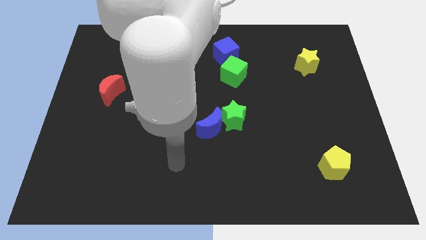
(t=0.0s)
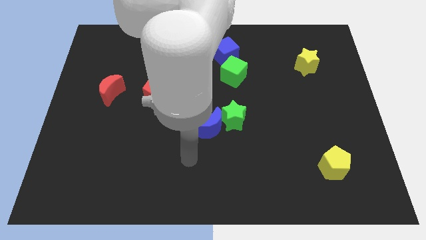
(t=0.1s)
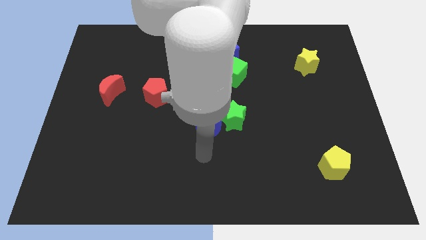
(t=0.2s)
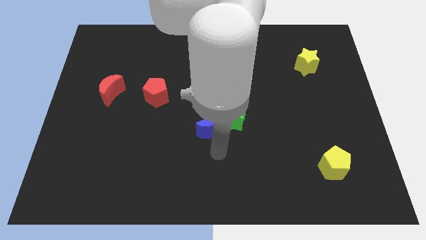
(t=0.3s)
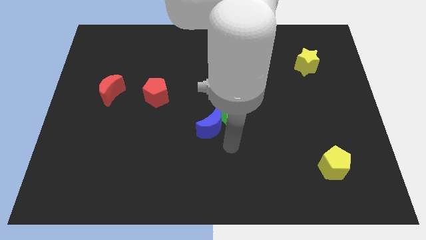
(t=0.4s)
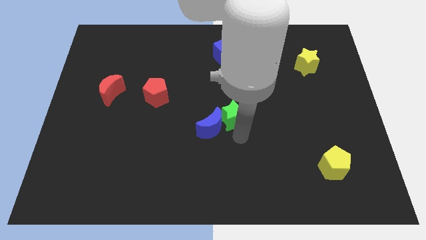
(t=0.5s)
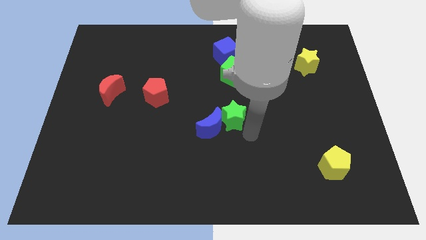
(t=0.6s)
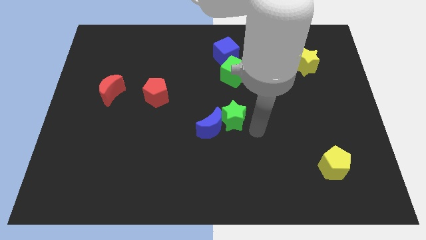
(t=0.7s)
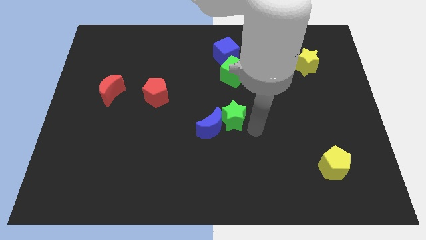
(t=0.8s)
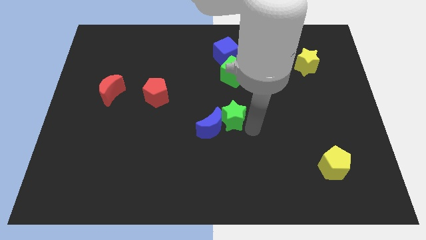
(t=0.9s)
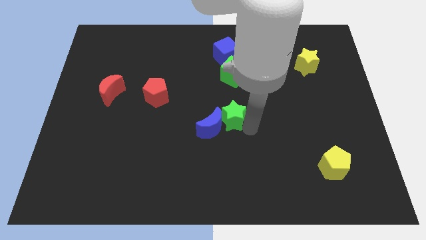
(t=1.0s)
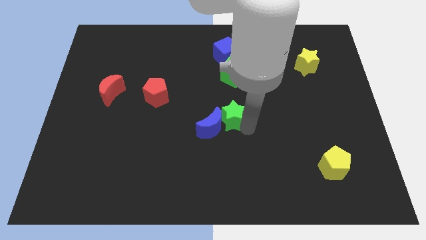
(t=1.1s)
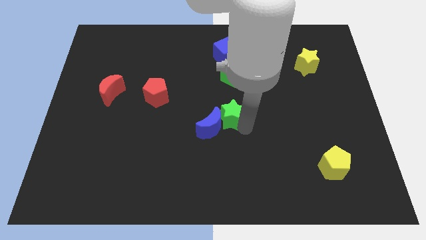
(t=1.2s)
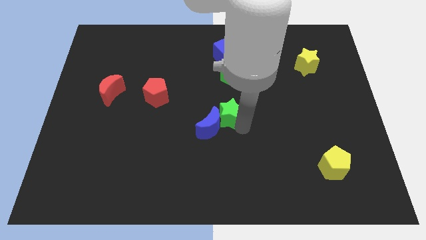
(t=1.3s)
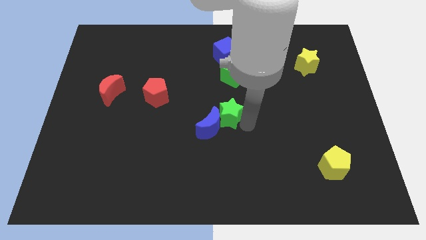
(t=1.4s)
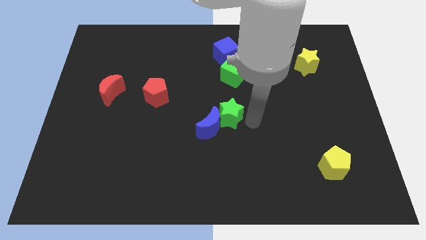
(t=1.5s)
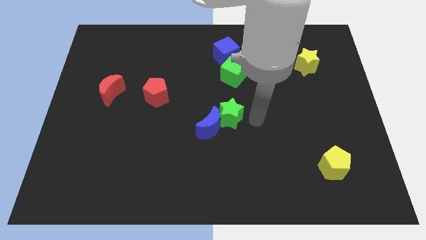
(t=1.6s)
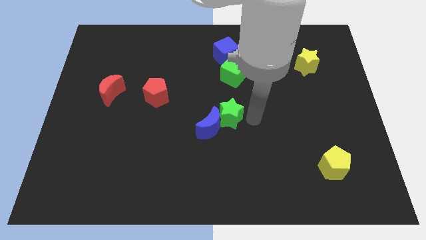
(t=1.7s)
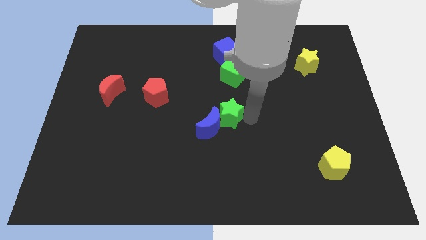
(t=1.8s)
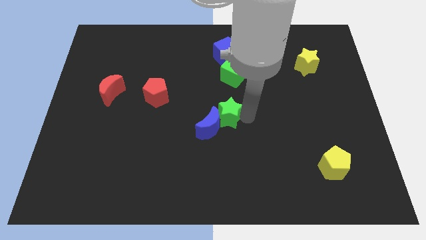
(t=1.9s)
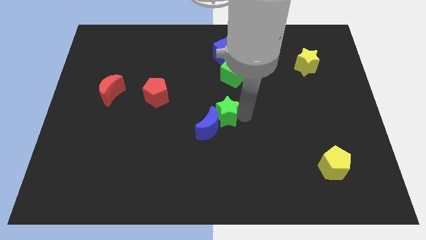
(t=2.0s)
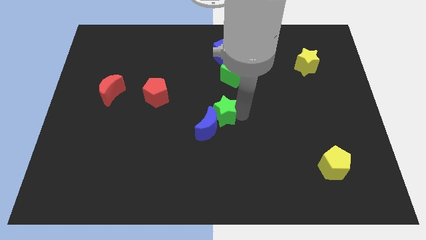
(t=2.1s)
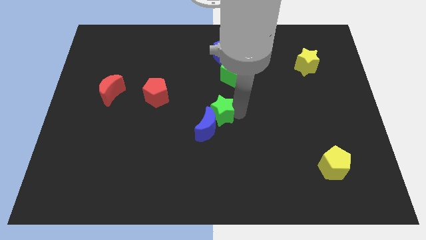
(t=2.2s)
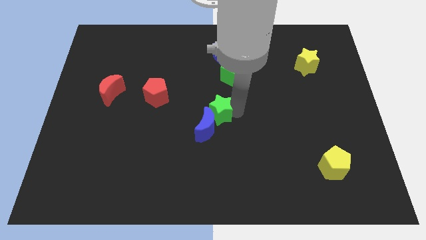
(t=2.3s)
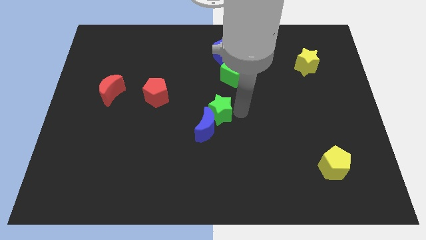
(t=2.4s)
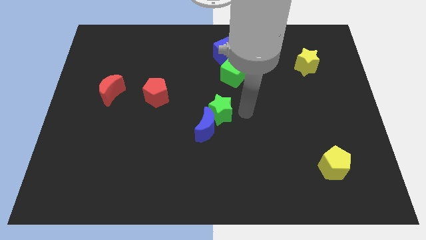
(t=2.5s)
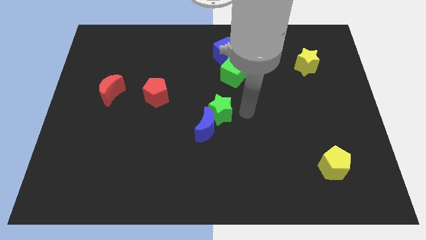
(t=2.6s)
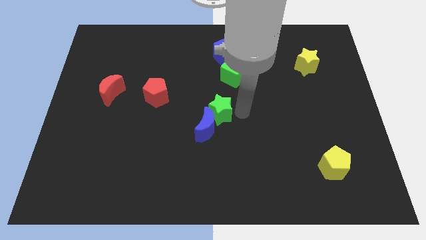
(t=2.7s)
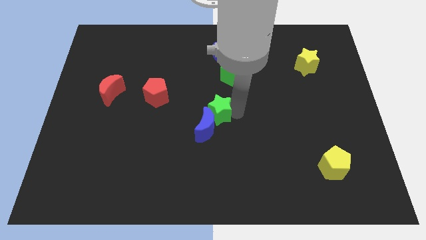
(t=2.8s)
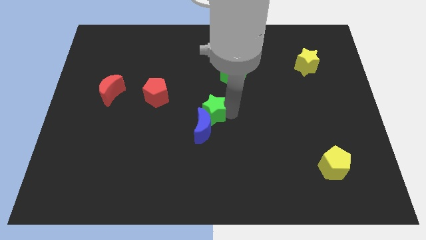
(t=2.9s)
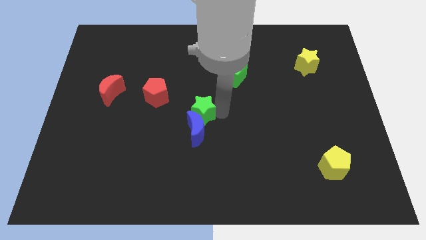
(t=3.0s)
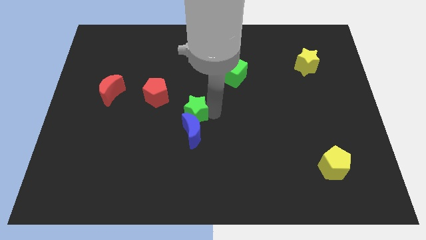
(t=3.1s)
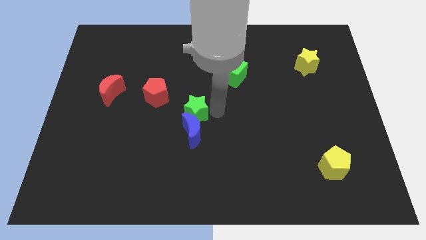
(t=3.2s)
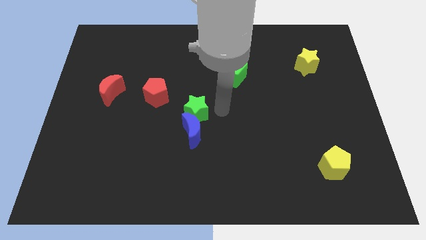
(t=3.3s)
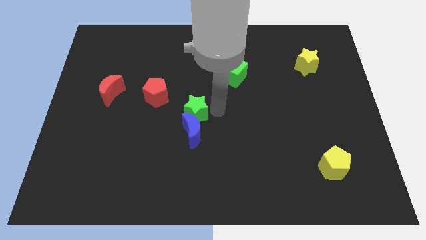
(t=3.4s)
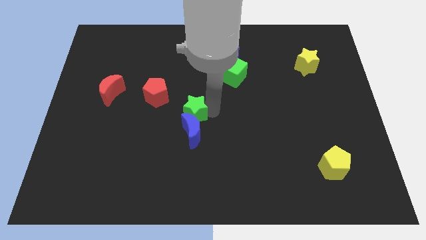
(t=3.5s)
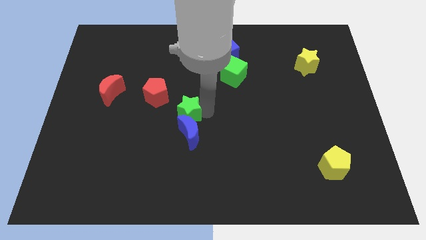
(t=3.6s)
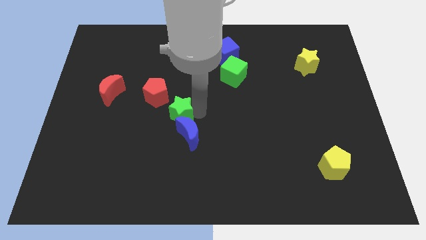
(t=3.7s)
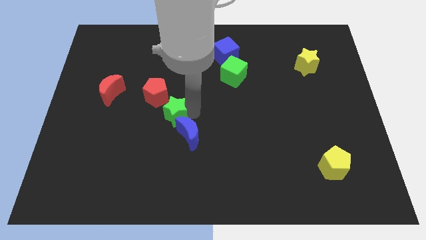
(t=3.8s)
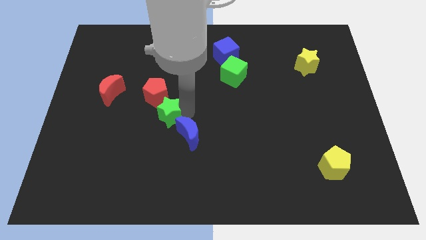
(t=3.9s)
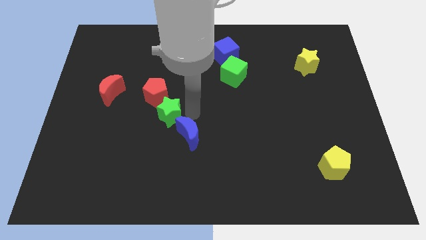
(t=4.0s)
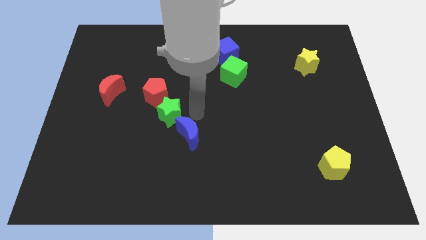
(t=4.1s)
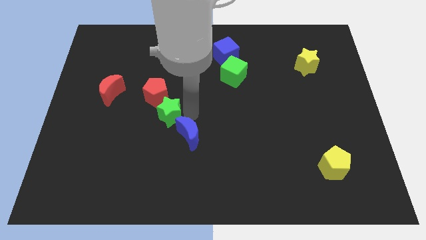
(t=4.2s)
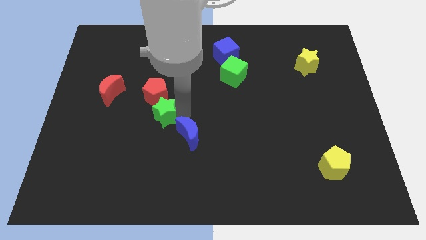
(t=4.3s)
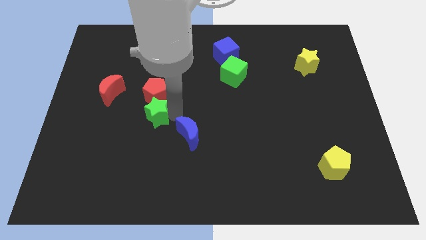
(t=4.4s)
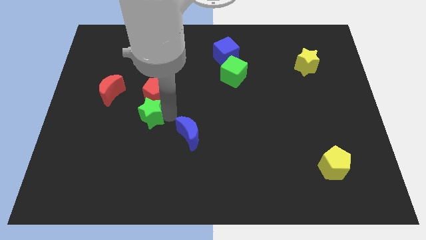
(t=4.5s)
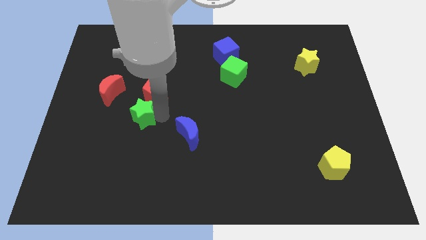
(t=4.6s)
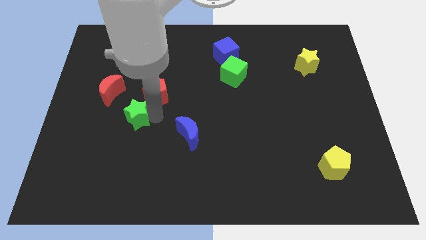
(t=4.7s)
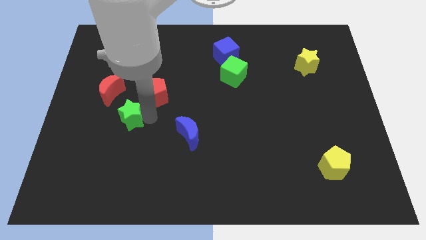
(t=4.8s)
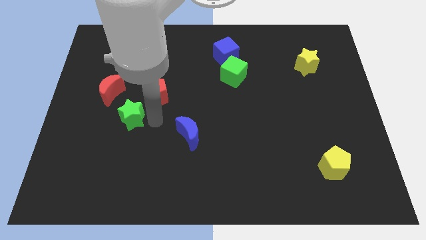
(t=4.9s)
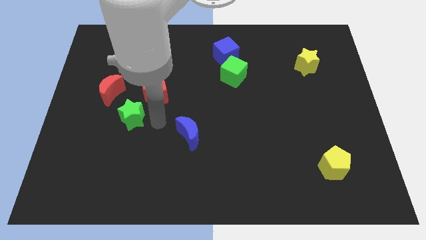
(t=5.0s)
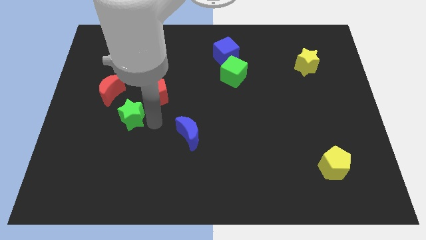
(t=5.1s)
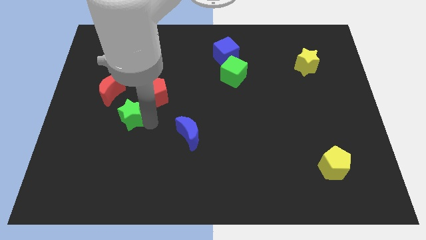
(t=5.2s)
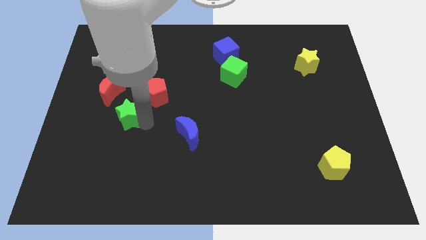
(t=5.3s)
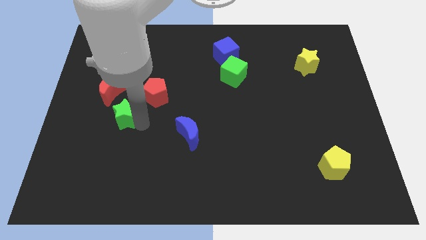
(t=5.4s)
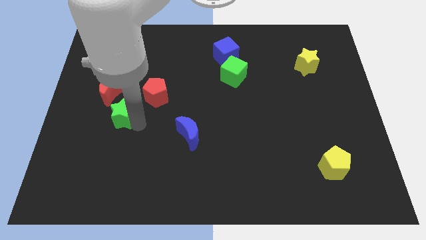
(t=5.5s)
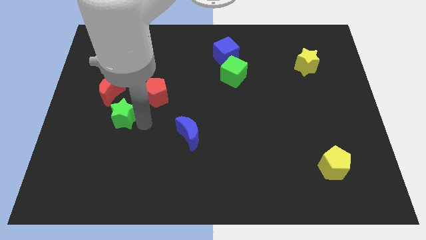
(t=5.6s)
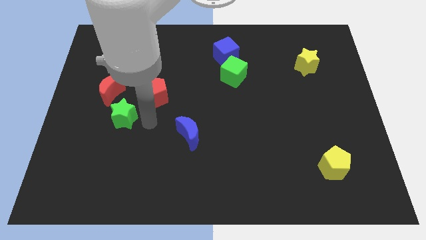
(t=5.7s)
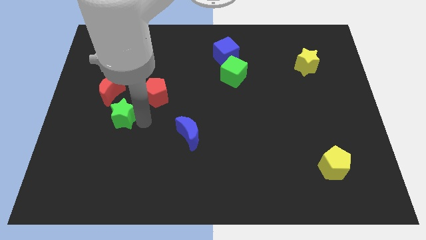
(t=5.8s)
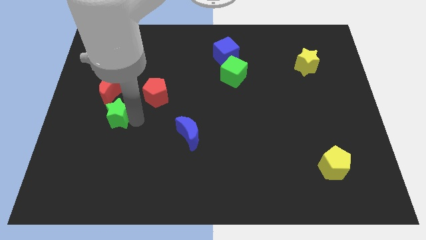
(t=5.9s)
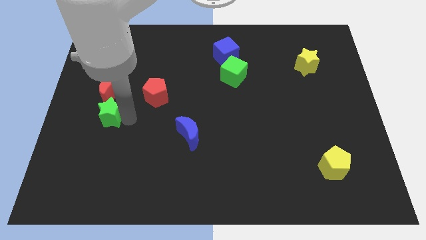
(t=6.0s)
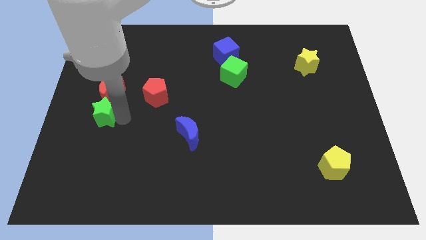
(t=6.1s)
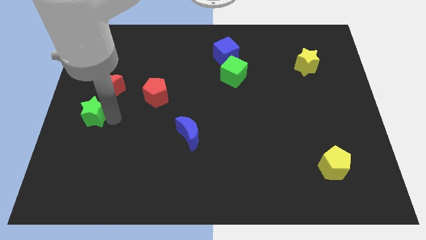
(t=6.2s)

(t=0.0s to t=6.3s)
slide the green star to the center left

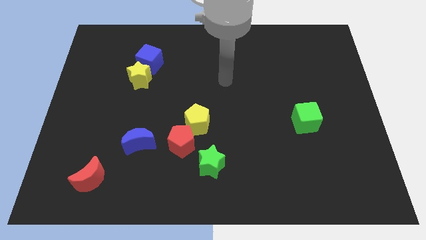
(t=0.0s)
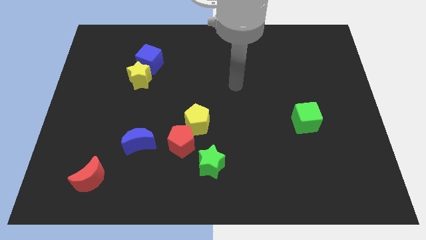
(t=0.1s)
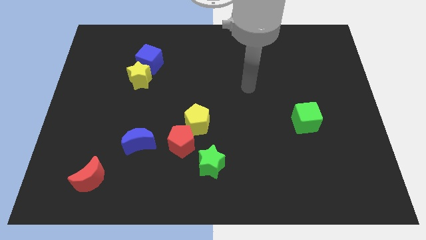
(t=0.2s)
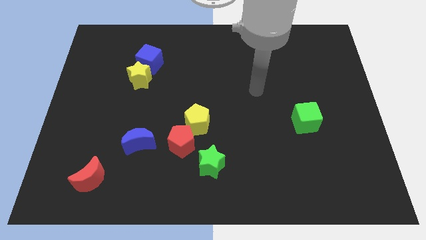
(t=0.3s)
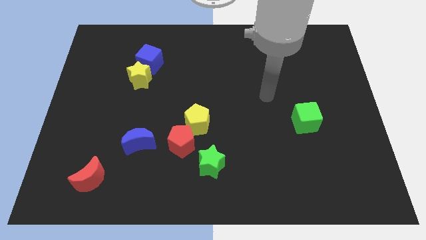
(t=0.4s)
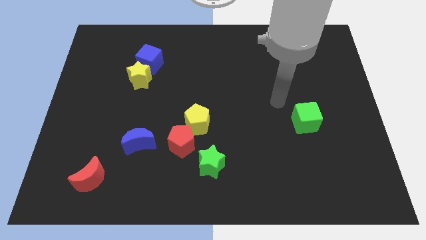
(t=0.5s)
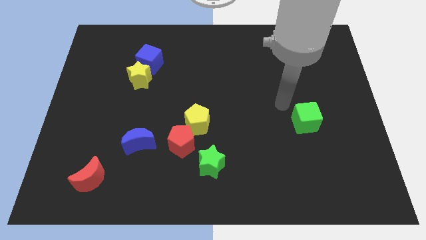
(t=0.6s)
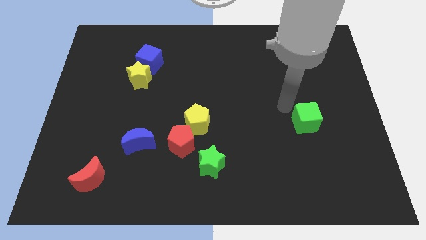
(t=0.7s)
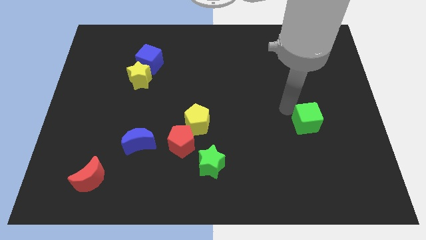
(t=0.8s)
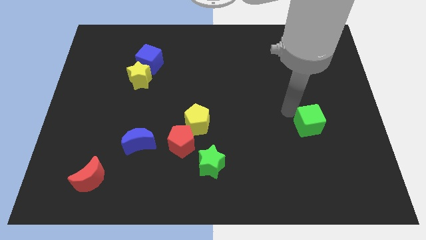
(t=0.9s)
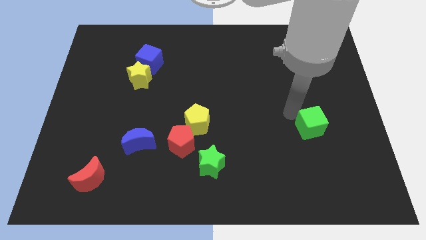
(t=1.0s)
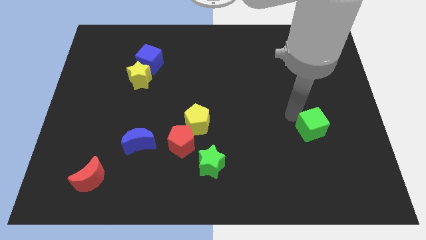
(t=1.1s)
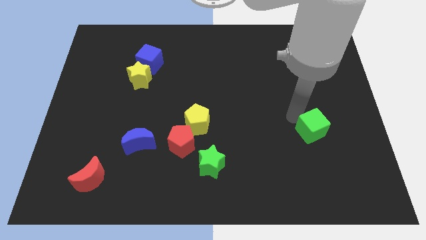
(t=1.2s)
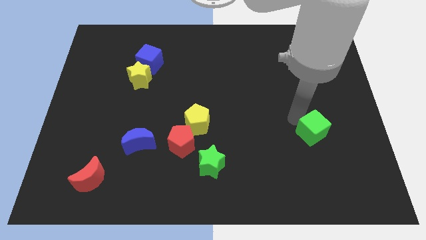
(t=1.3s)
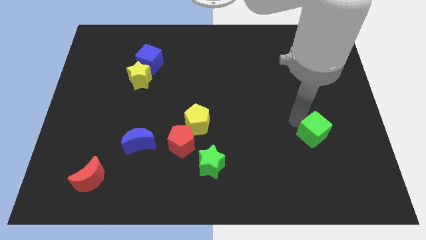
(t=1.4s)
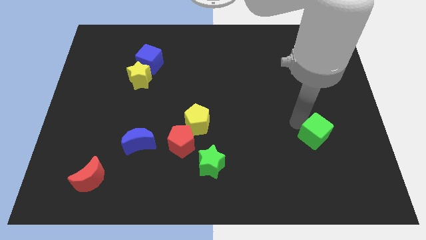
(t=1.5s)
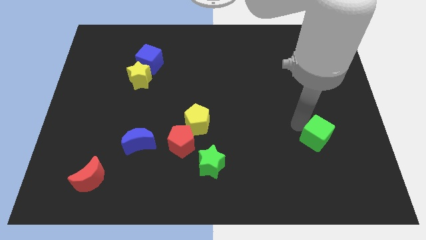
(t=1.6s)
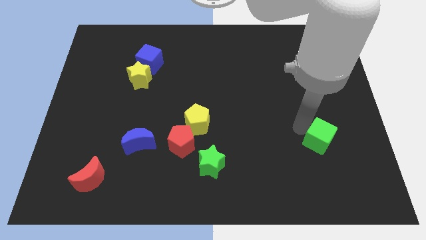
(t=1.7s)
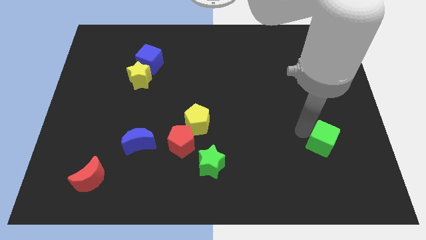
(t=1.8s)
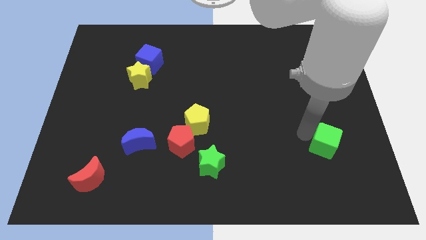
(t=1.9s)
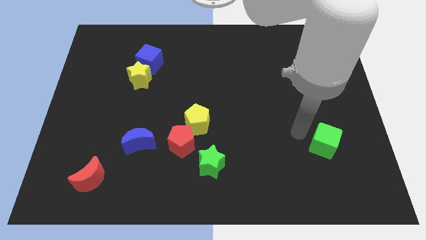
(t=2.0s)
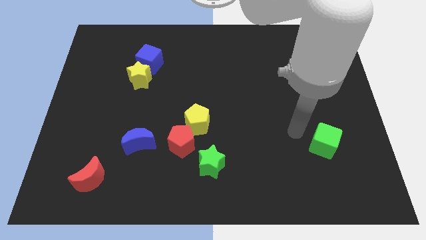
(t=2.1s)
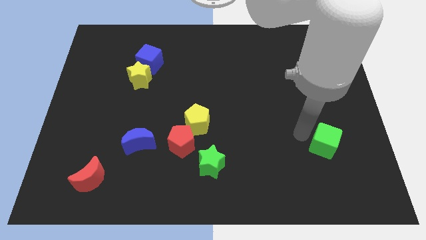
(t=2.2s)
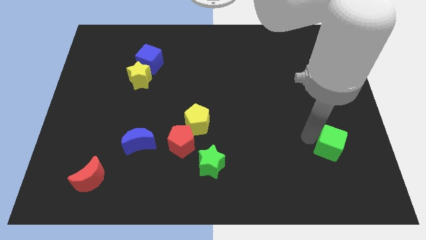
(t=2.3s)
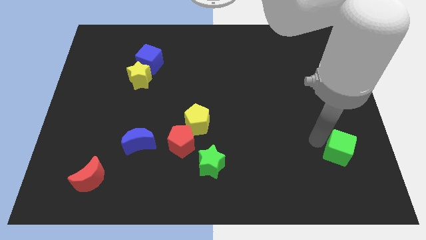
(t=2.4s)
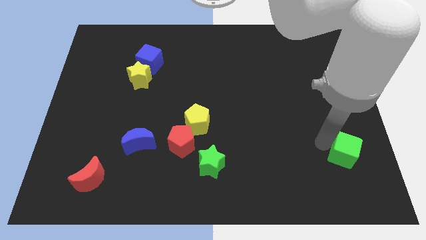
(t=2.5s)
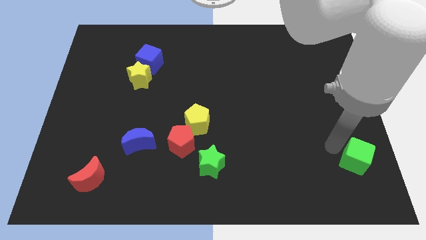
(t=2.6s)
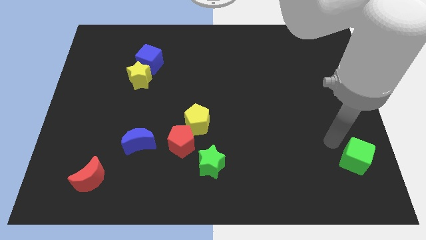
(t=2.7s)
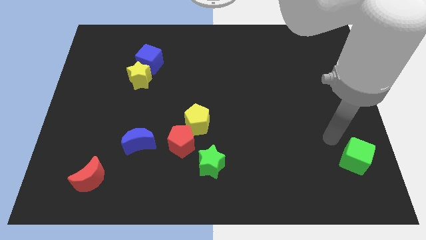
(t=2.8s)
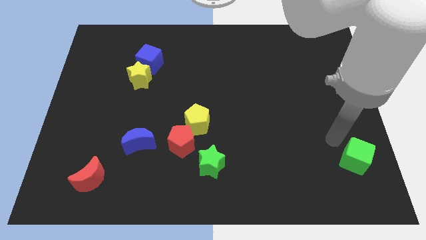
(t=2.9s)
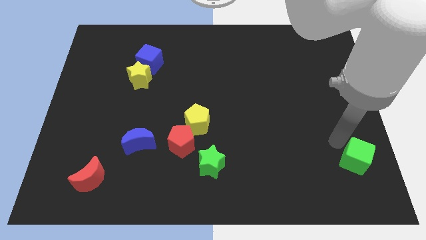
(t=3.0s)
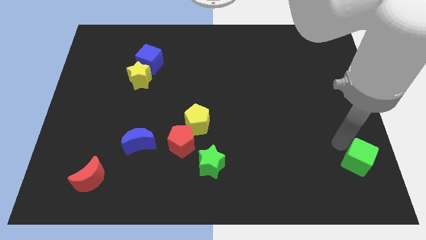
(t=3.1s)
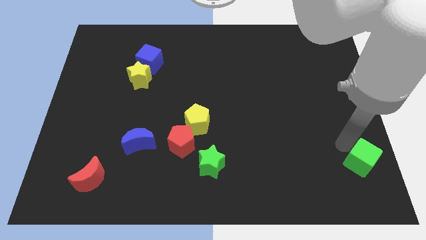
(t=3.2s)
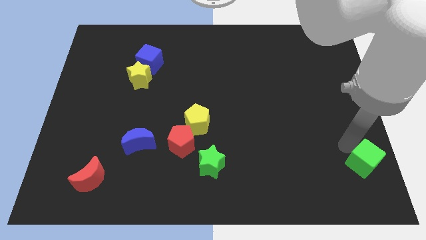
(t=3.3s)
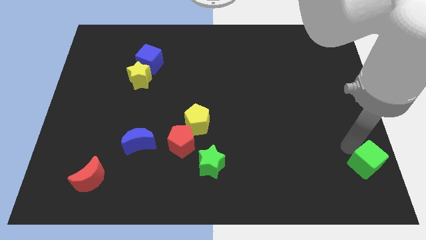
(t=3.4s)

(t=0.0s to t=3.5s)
slide the green cube to the bottom right corner
